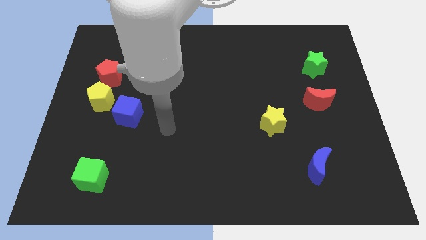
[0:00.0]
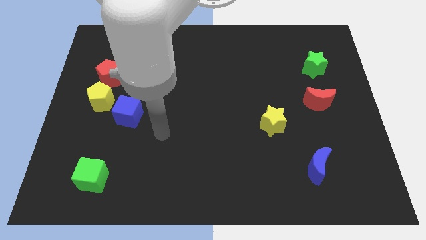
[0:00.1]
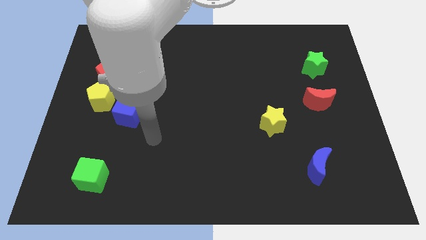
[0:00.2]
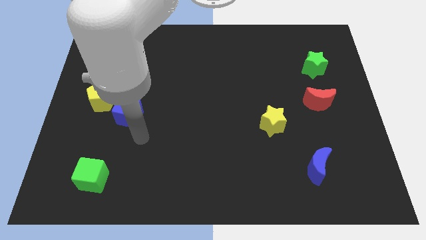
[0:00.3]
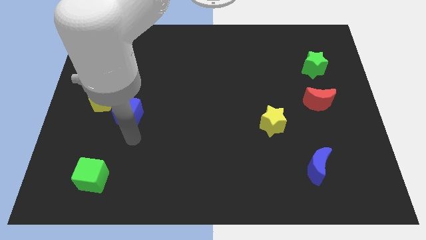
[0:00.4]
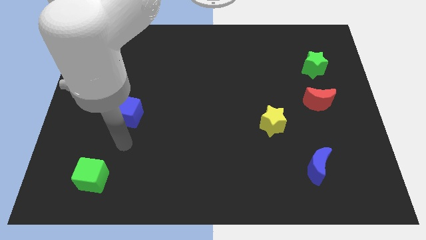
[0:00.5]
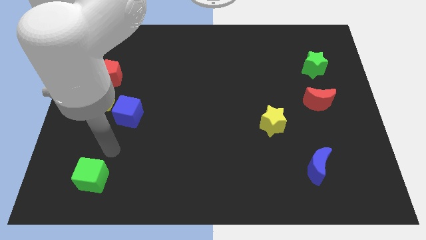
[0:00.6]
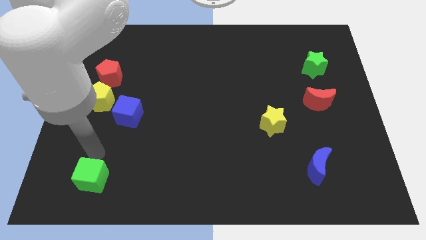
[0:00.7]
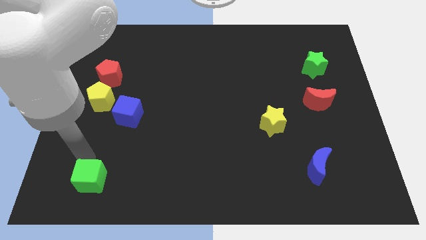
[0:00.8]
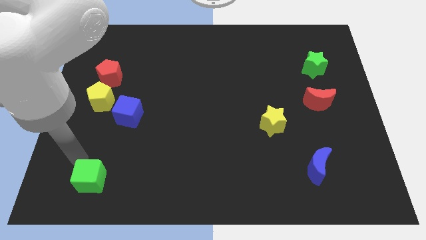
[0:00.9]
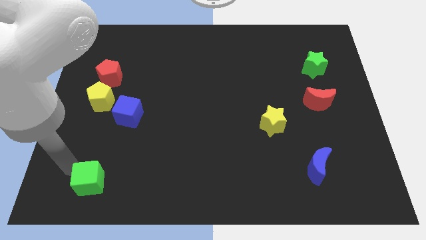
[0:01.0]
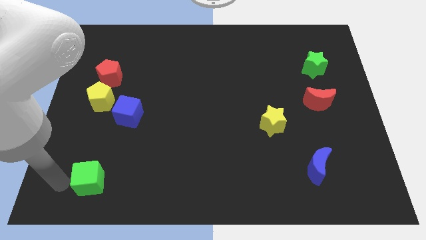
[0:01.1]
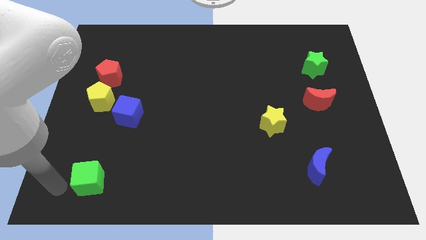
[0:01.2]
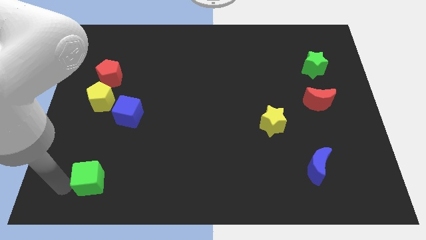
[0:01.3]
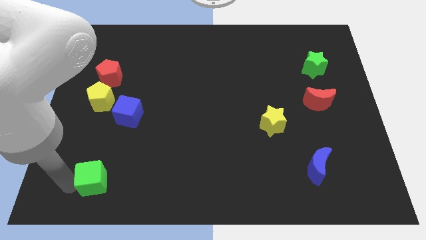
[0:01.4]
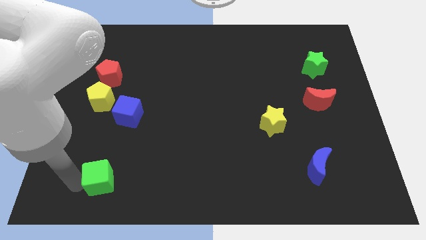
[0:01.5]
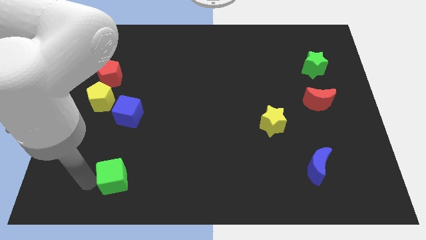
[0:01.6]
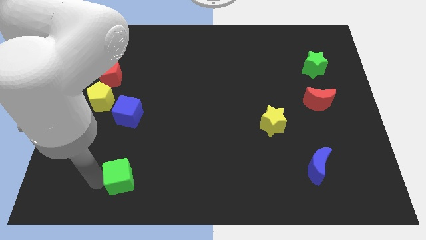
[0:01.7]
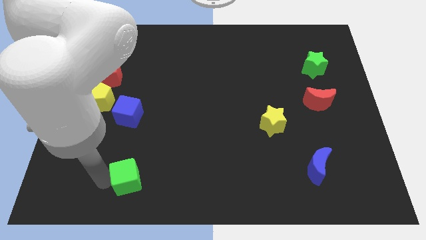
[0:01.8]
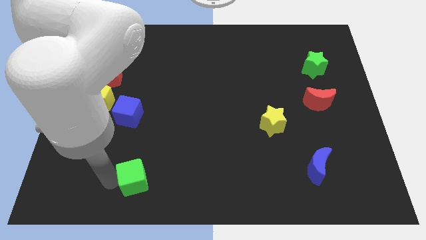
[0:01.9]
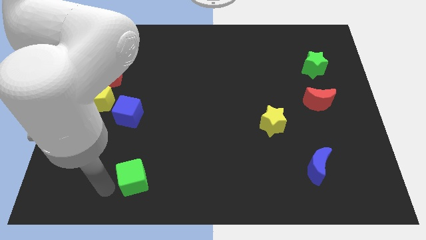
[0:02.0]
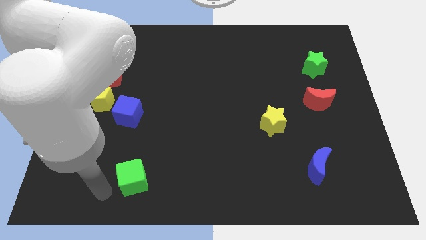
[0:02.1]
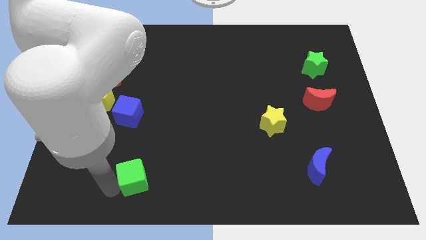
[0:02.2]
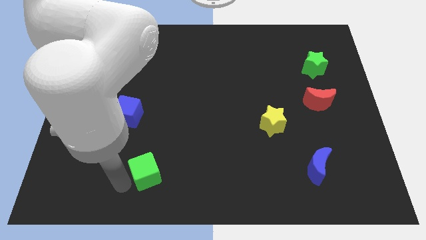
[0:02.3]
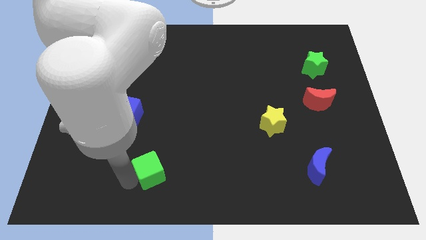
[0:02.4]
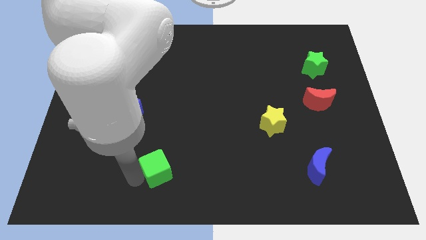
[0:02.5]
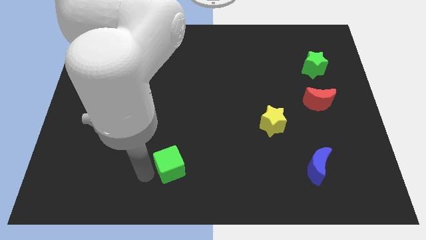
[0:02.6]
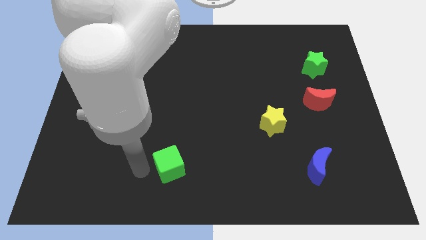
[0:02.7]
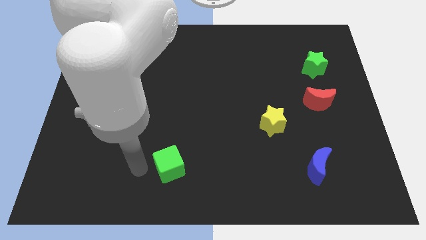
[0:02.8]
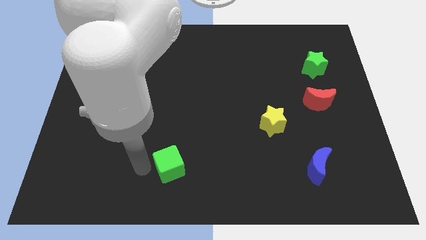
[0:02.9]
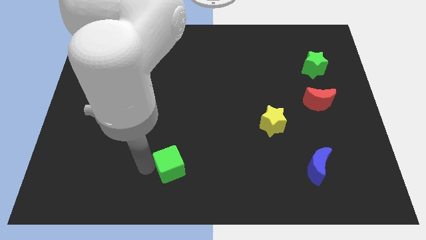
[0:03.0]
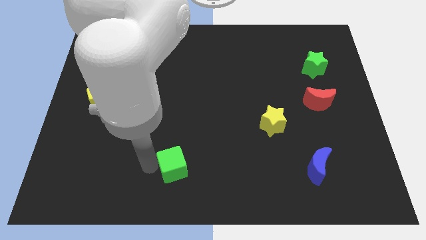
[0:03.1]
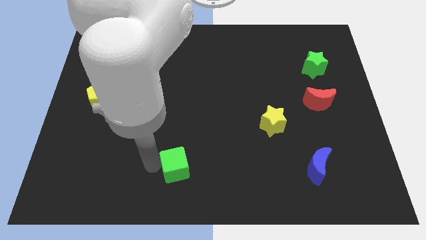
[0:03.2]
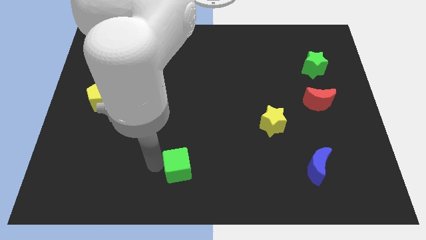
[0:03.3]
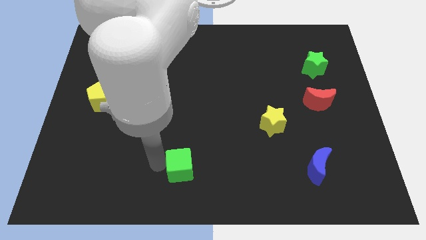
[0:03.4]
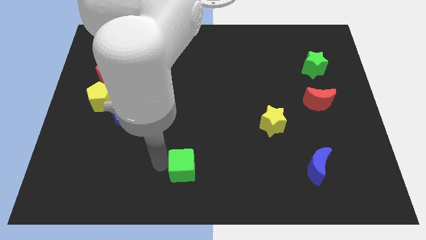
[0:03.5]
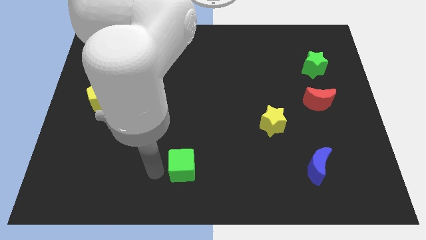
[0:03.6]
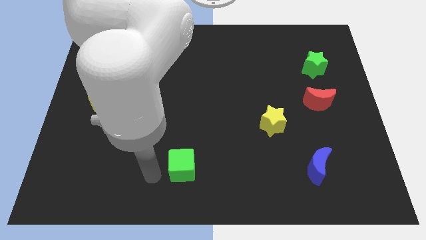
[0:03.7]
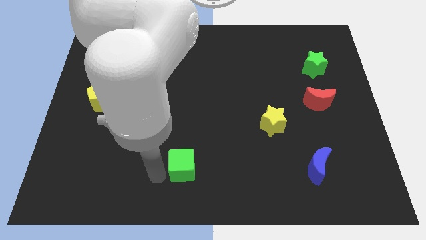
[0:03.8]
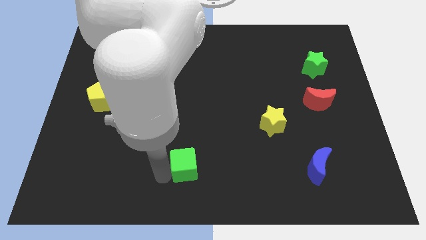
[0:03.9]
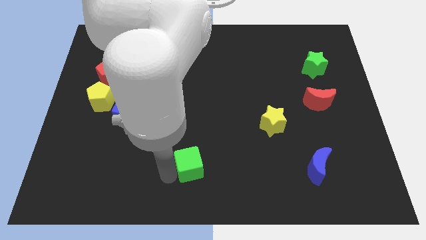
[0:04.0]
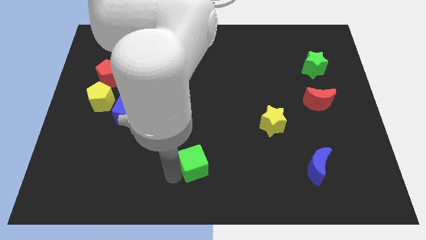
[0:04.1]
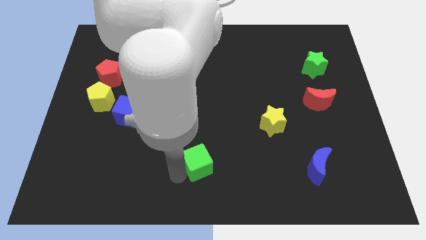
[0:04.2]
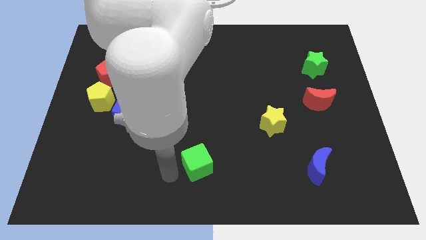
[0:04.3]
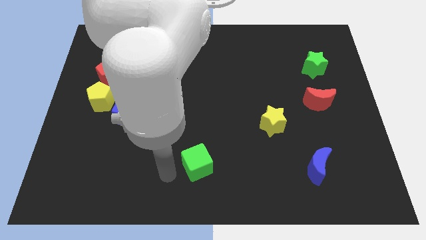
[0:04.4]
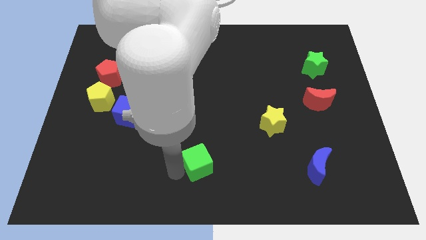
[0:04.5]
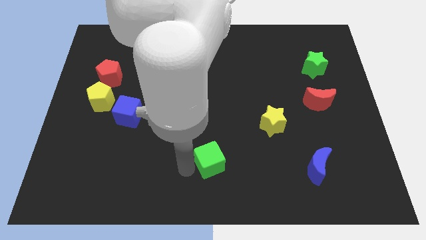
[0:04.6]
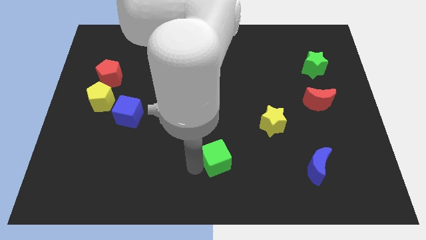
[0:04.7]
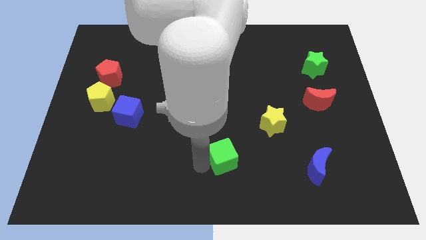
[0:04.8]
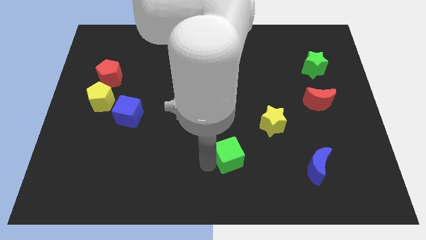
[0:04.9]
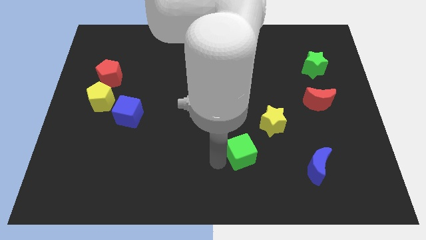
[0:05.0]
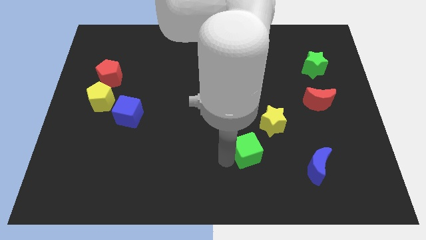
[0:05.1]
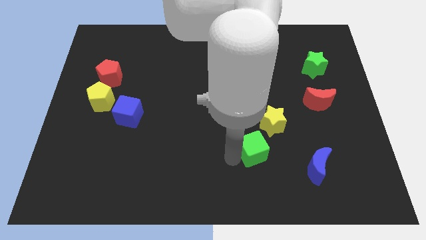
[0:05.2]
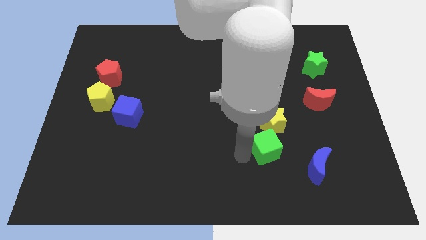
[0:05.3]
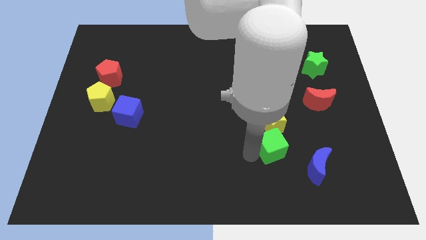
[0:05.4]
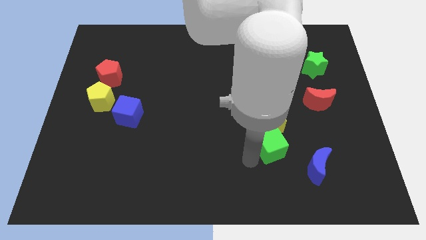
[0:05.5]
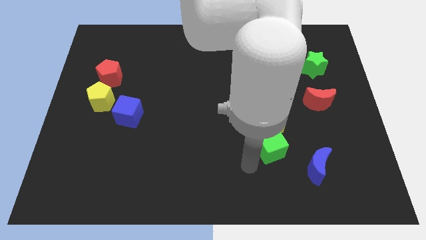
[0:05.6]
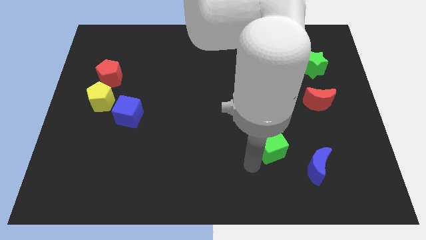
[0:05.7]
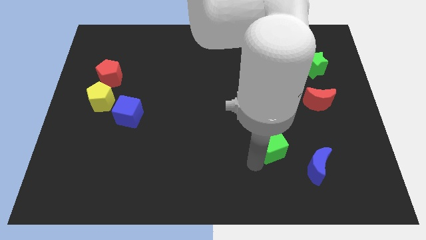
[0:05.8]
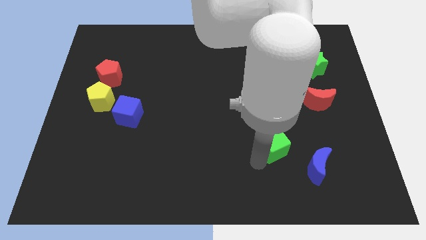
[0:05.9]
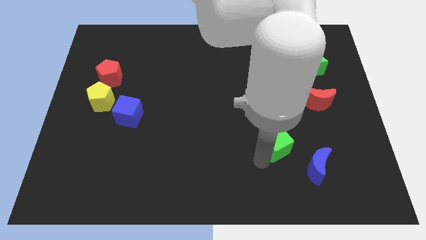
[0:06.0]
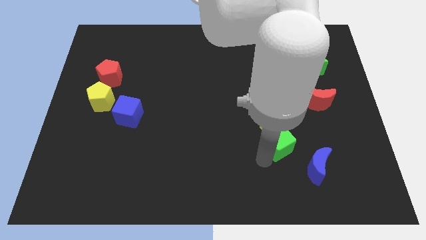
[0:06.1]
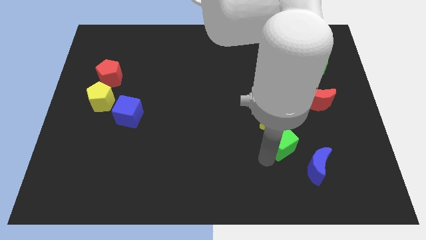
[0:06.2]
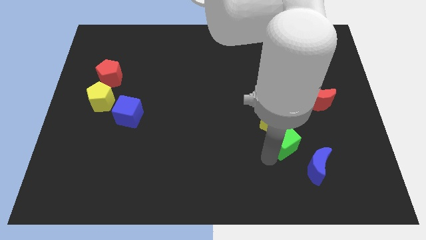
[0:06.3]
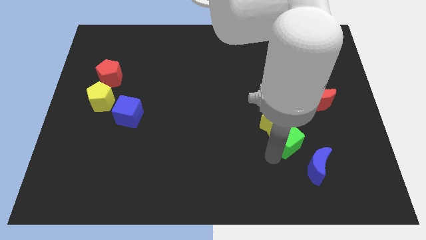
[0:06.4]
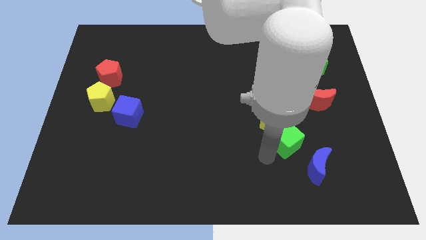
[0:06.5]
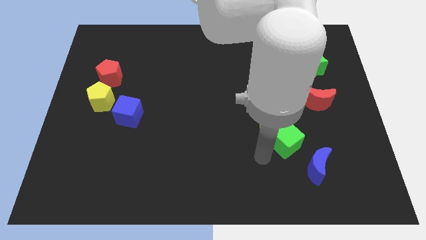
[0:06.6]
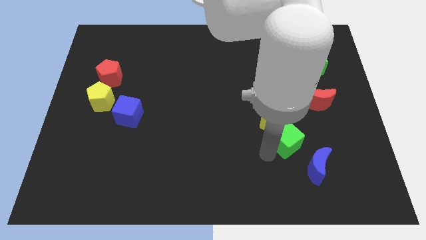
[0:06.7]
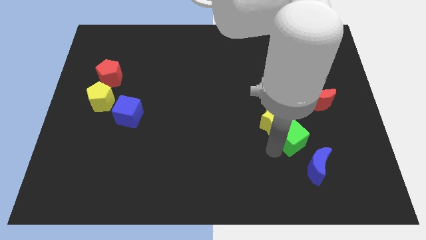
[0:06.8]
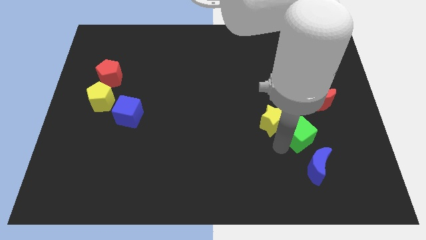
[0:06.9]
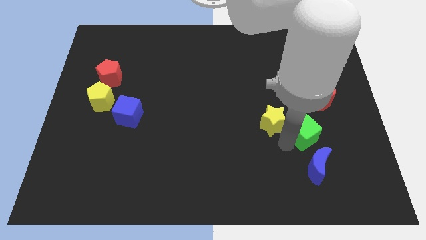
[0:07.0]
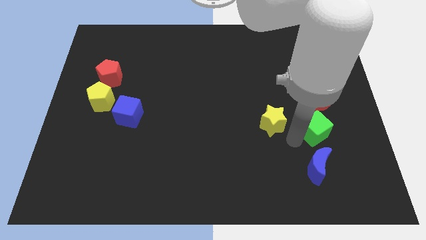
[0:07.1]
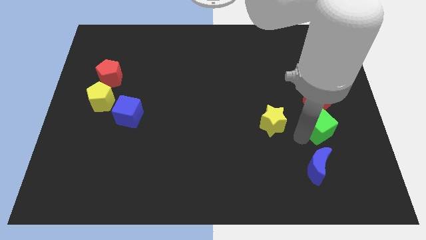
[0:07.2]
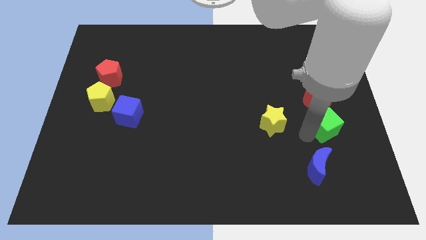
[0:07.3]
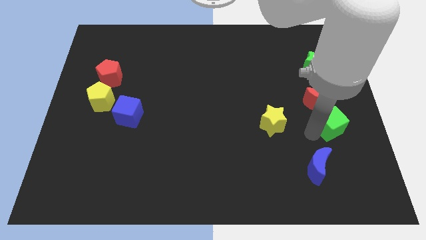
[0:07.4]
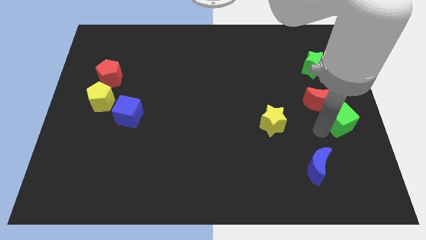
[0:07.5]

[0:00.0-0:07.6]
move the green cube to the center right

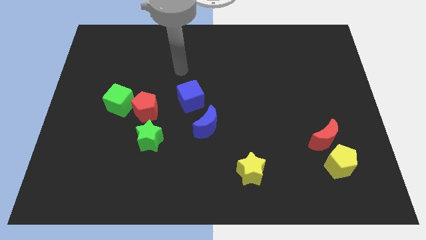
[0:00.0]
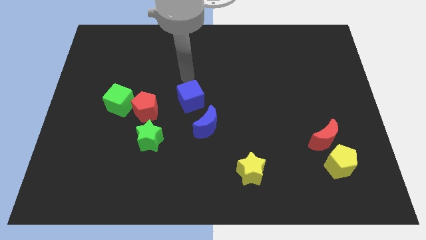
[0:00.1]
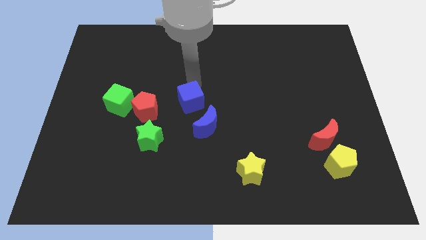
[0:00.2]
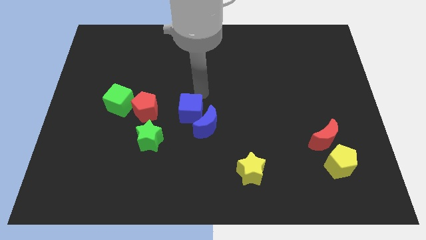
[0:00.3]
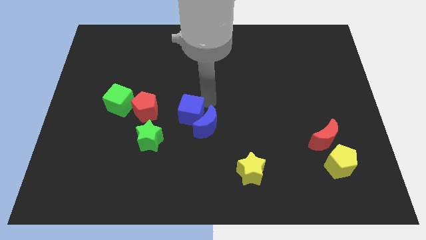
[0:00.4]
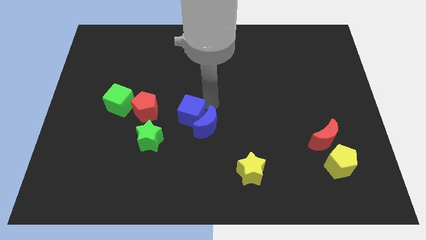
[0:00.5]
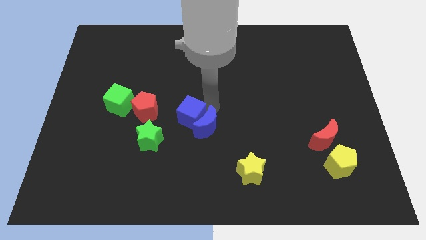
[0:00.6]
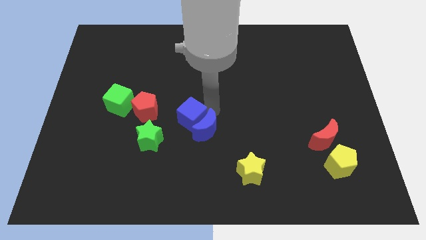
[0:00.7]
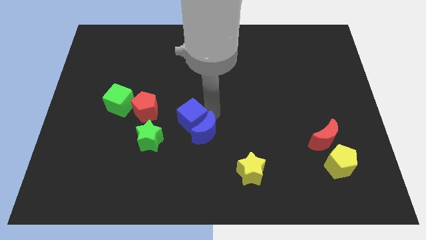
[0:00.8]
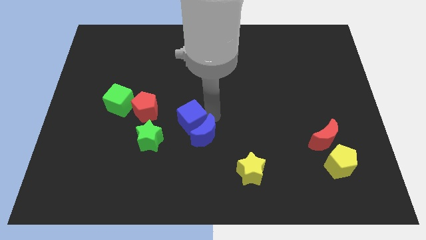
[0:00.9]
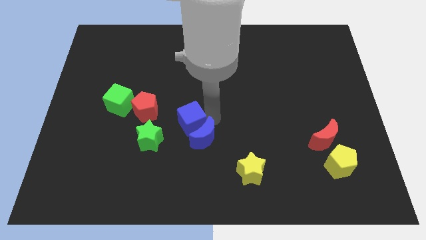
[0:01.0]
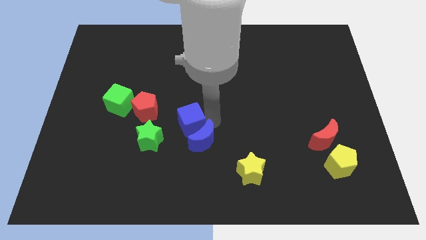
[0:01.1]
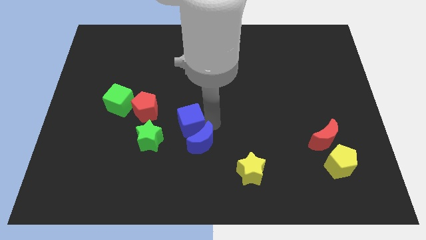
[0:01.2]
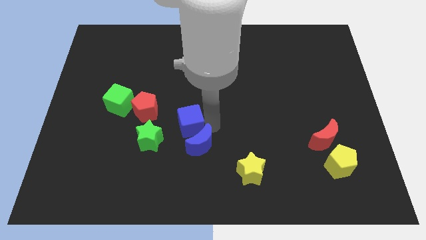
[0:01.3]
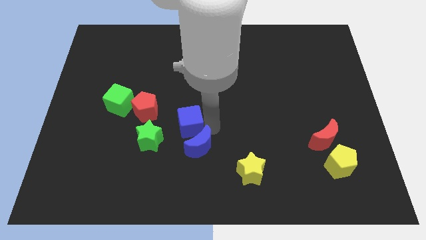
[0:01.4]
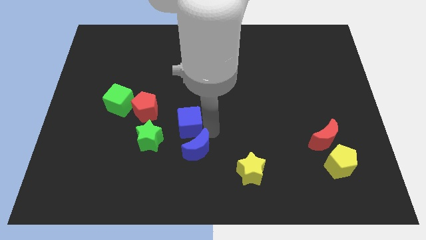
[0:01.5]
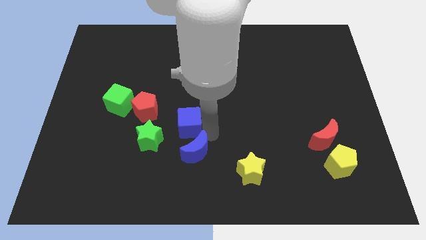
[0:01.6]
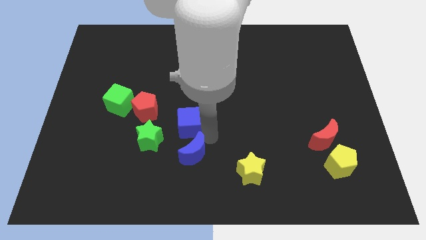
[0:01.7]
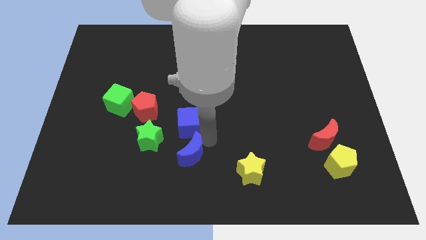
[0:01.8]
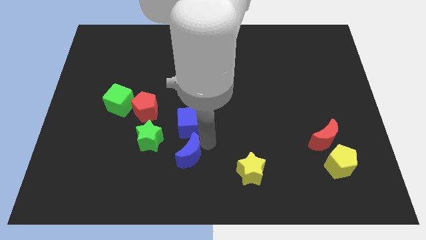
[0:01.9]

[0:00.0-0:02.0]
slide the blue moon to the bottom side
